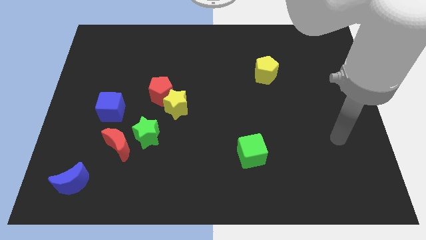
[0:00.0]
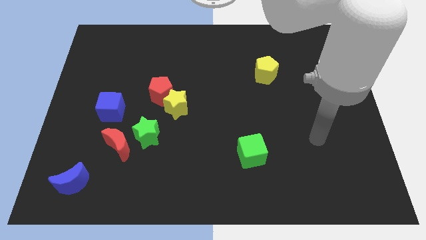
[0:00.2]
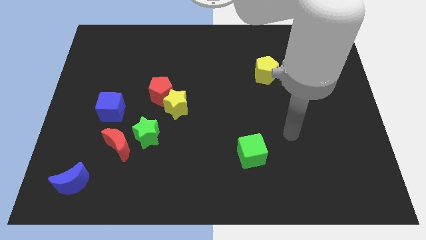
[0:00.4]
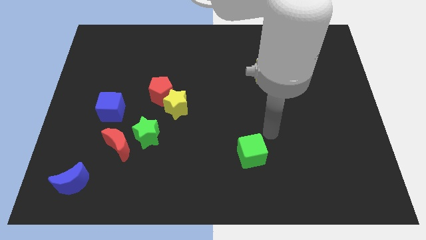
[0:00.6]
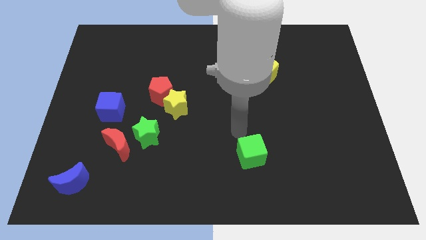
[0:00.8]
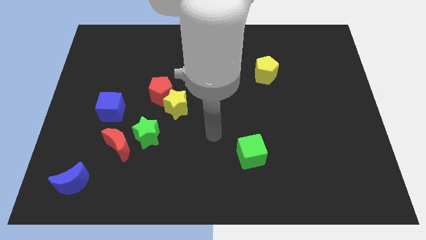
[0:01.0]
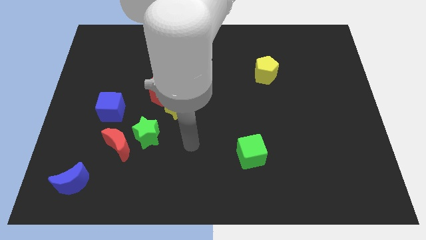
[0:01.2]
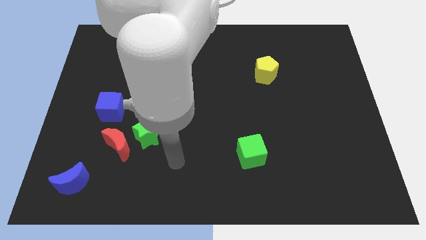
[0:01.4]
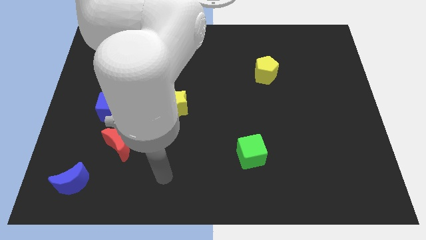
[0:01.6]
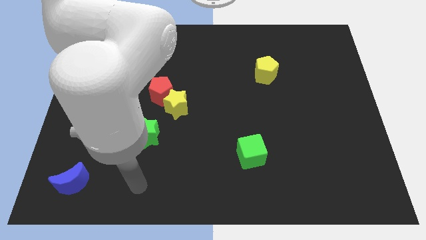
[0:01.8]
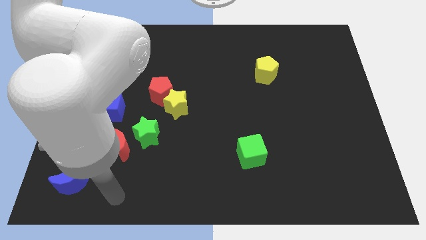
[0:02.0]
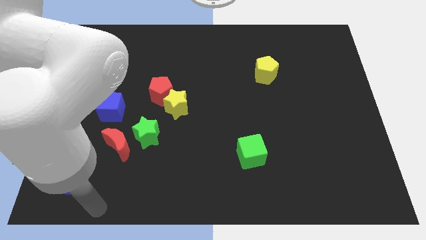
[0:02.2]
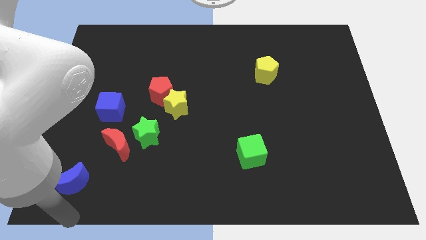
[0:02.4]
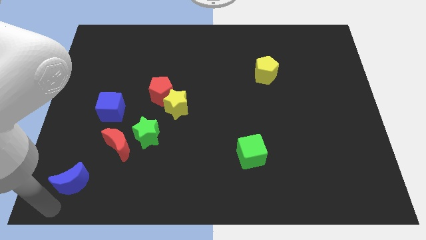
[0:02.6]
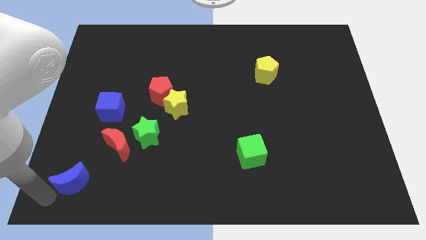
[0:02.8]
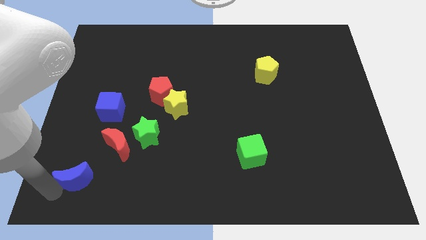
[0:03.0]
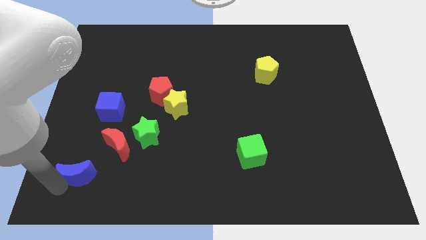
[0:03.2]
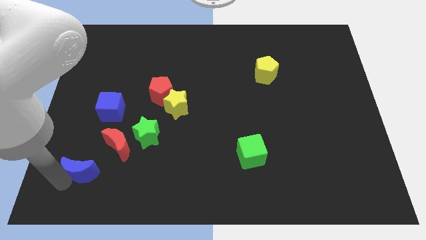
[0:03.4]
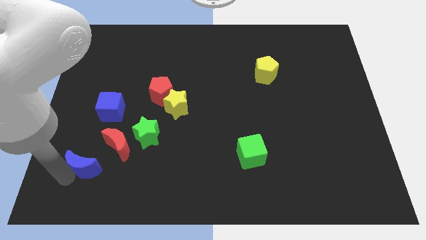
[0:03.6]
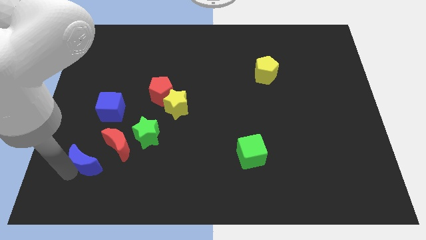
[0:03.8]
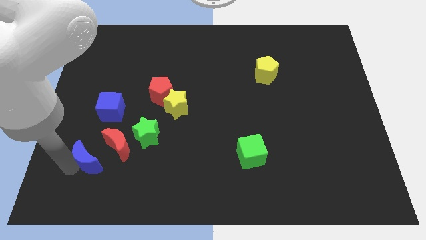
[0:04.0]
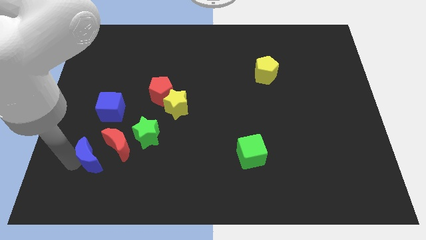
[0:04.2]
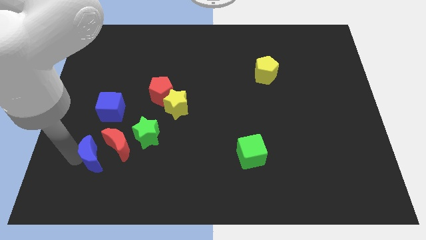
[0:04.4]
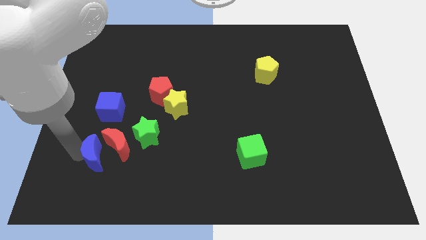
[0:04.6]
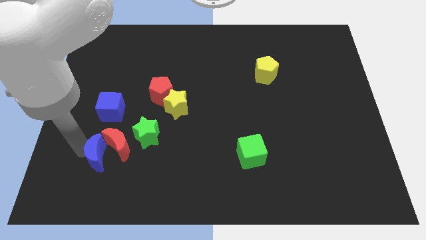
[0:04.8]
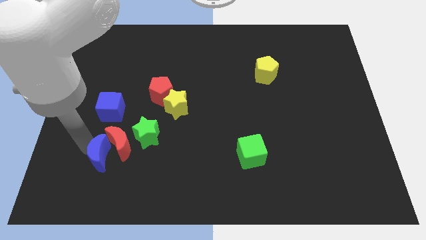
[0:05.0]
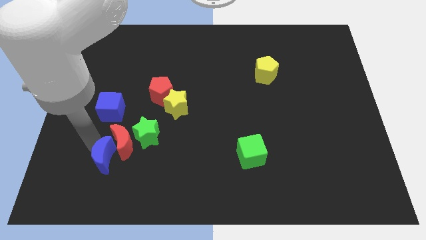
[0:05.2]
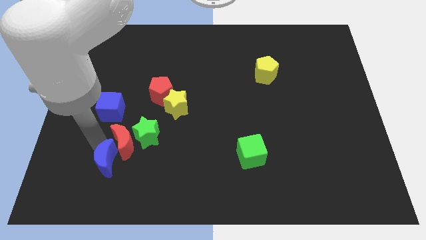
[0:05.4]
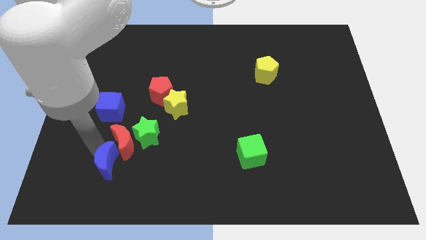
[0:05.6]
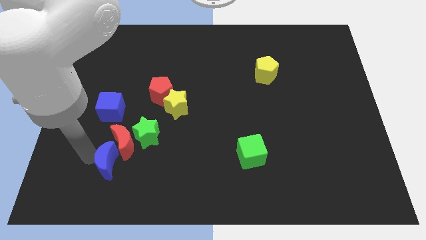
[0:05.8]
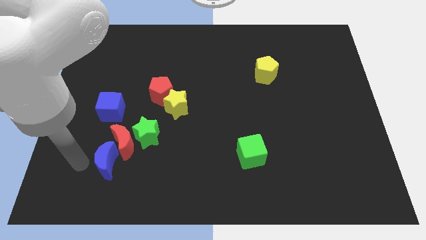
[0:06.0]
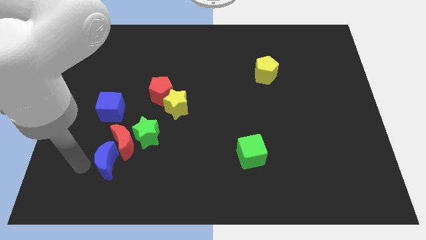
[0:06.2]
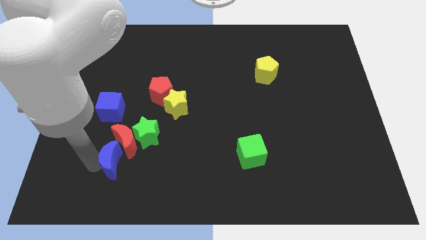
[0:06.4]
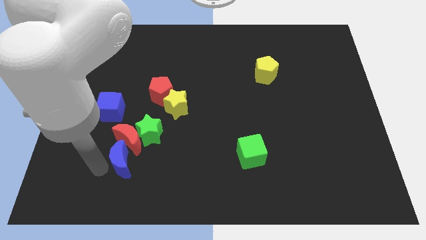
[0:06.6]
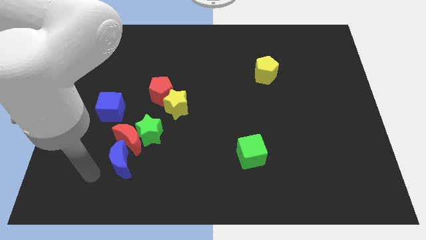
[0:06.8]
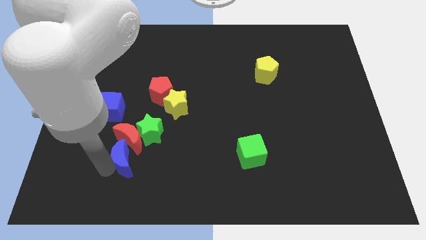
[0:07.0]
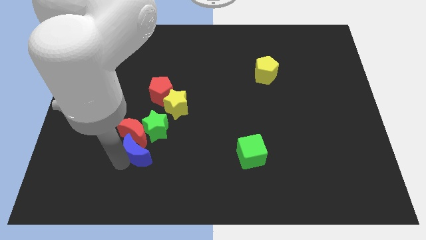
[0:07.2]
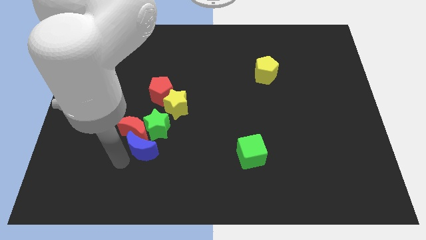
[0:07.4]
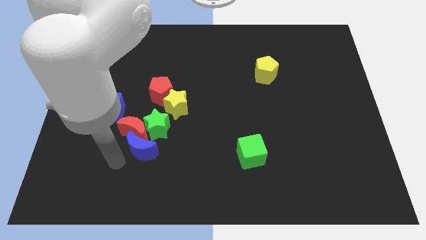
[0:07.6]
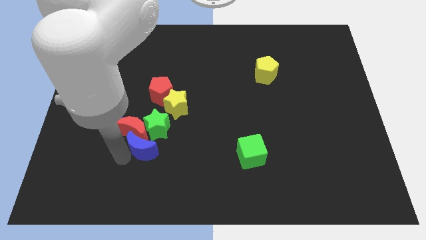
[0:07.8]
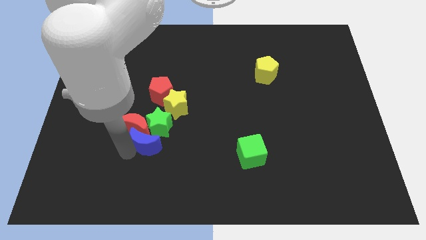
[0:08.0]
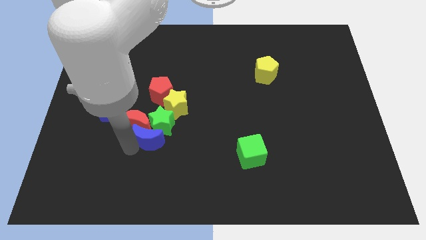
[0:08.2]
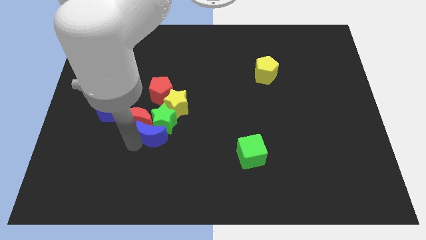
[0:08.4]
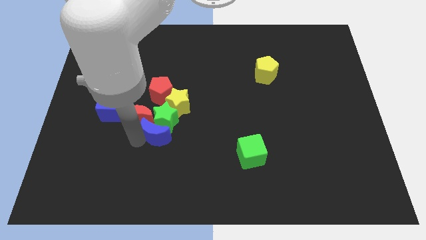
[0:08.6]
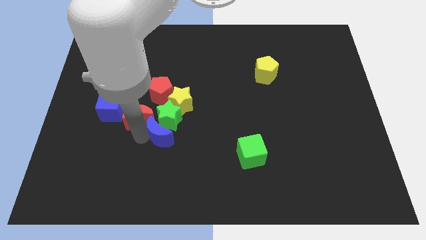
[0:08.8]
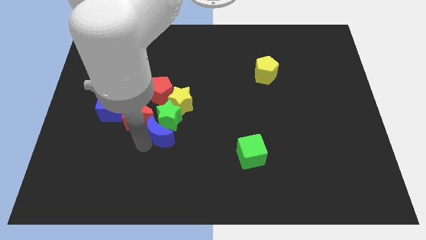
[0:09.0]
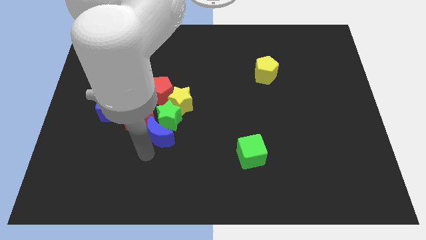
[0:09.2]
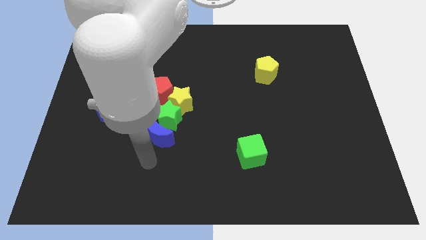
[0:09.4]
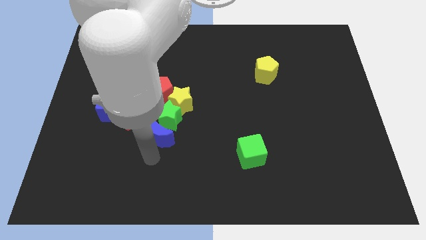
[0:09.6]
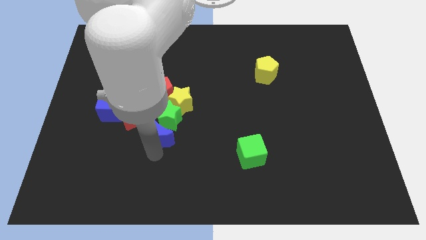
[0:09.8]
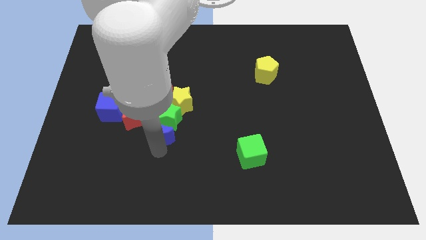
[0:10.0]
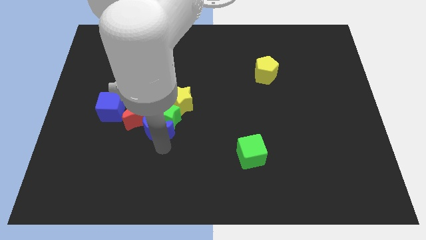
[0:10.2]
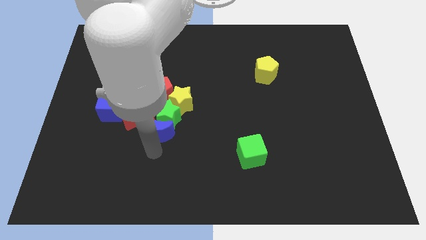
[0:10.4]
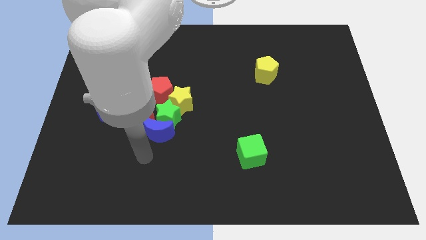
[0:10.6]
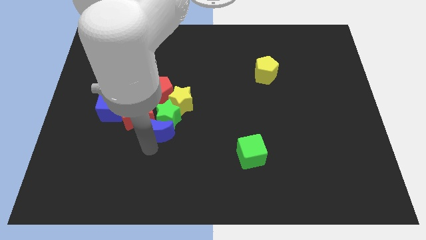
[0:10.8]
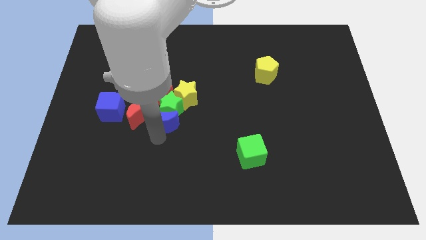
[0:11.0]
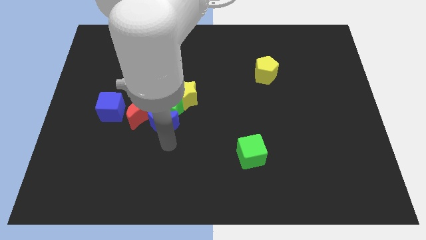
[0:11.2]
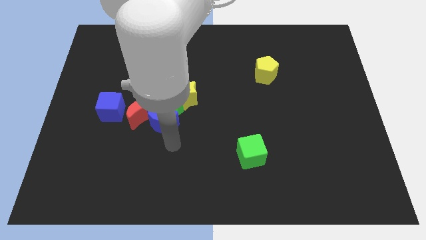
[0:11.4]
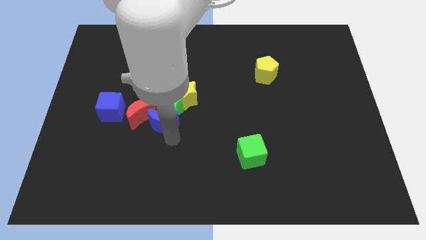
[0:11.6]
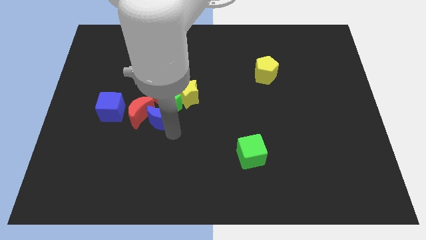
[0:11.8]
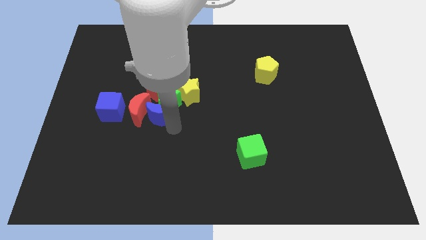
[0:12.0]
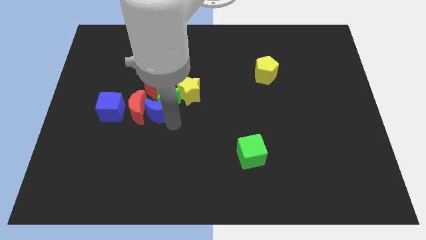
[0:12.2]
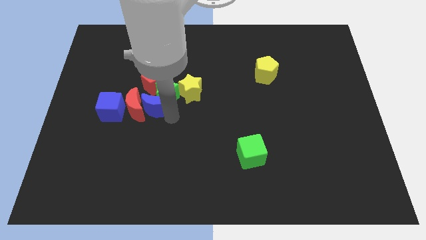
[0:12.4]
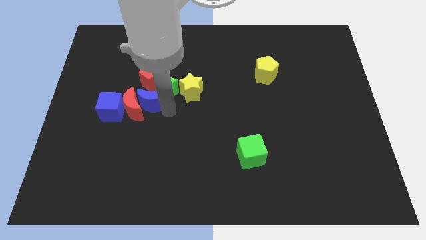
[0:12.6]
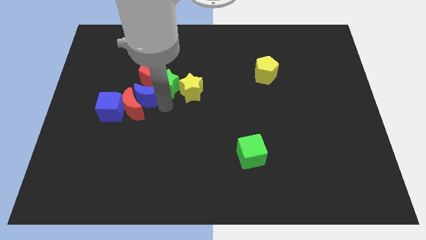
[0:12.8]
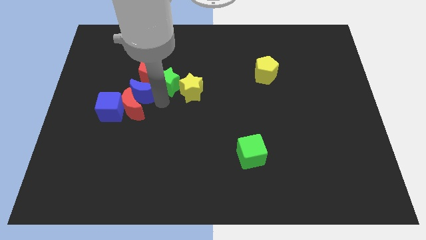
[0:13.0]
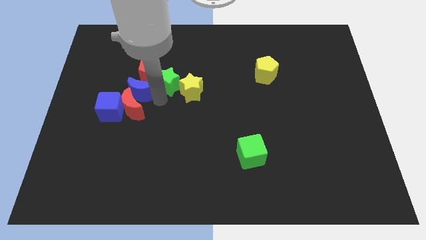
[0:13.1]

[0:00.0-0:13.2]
push the blue moon to the red pentagon
